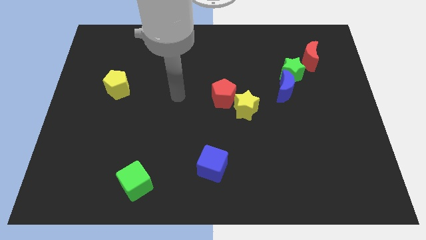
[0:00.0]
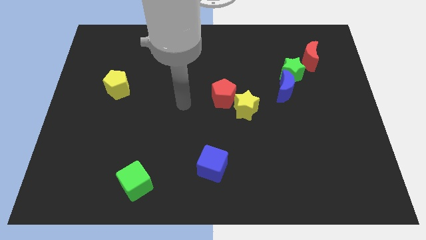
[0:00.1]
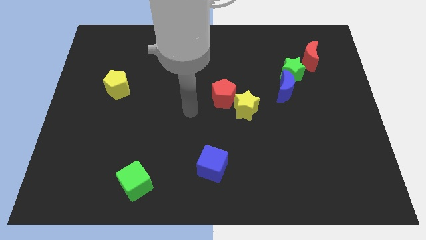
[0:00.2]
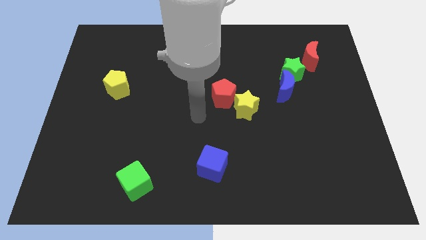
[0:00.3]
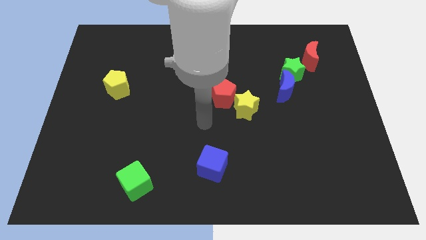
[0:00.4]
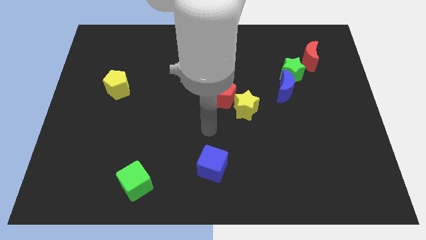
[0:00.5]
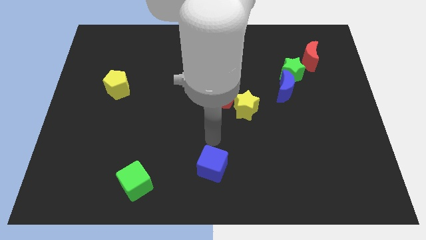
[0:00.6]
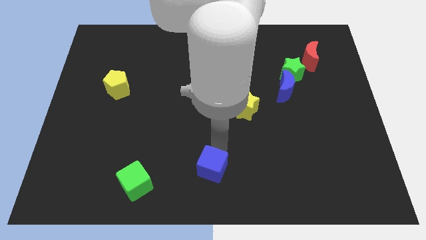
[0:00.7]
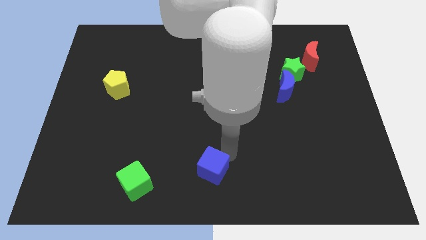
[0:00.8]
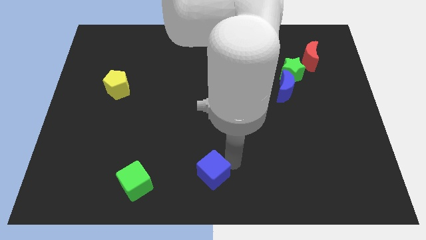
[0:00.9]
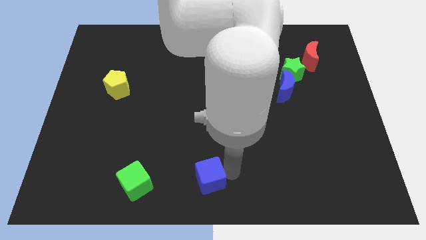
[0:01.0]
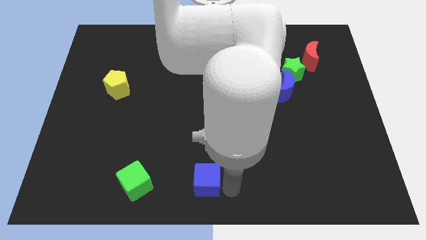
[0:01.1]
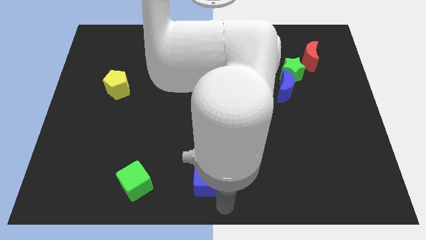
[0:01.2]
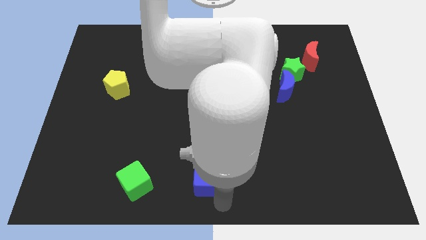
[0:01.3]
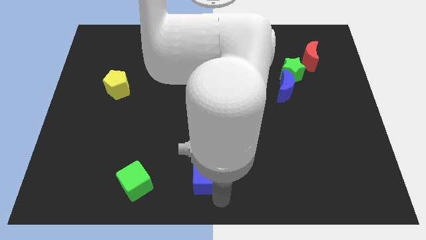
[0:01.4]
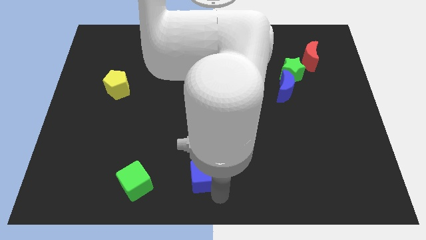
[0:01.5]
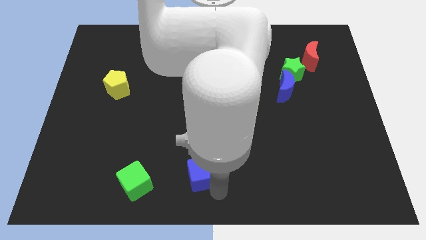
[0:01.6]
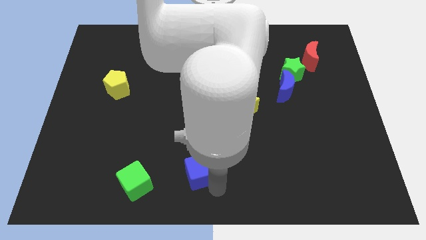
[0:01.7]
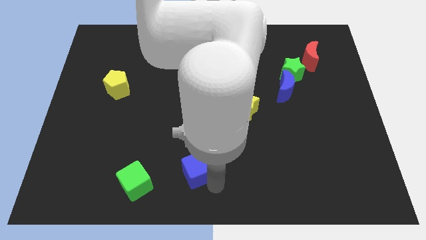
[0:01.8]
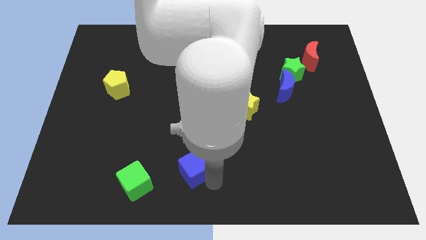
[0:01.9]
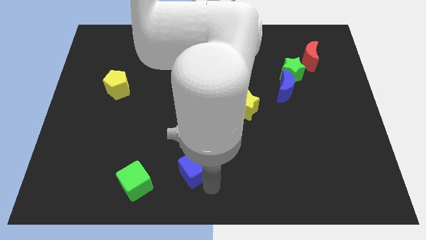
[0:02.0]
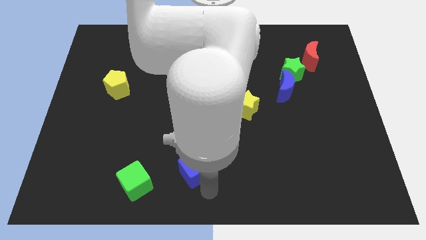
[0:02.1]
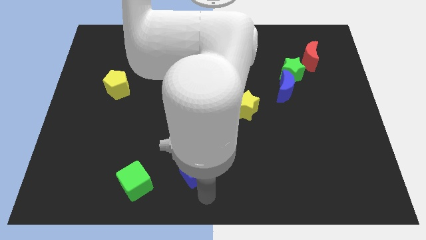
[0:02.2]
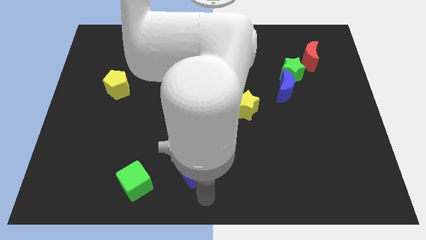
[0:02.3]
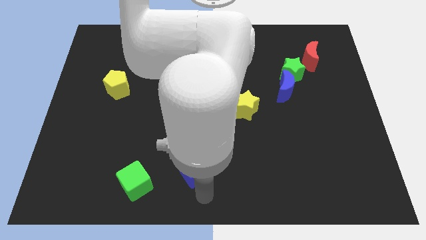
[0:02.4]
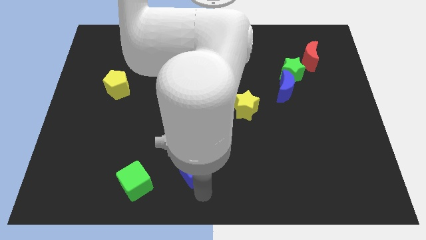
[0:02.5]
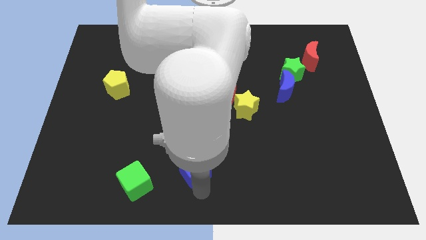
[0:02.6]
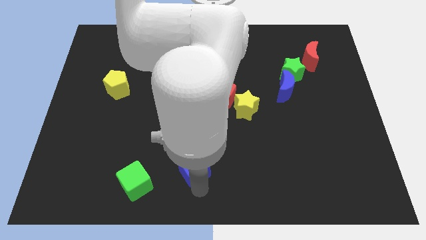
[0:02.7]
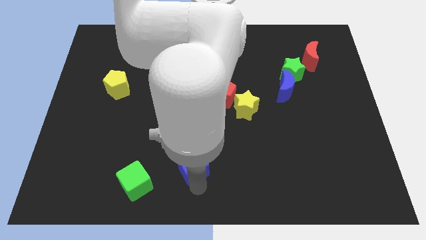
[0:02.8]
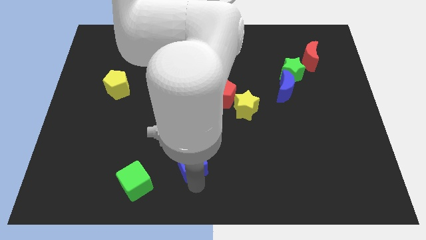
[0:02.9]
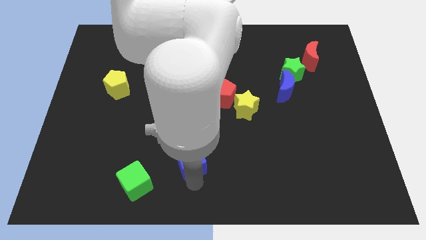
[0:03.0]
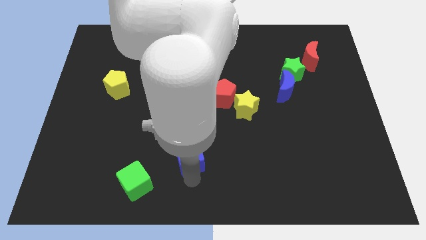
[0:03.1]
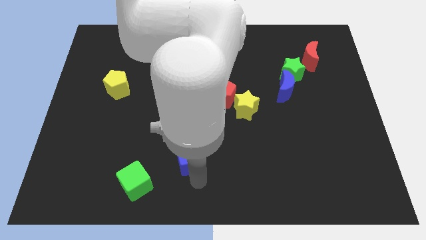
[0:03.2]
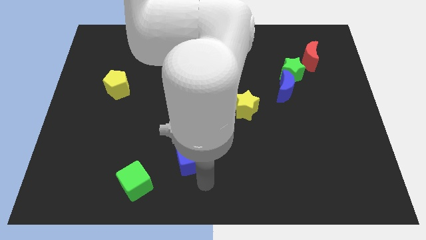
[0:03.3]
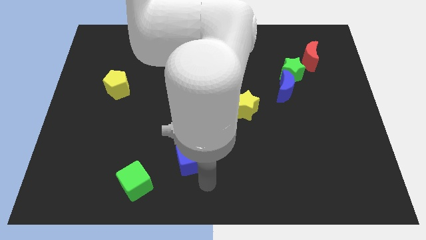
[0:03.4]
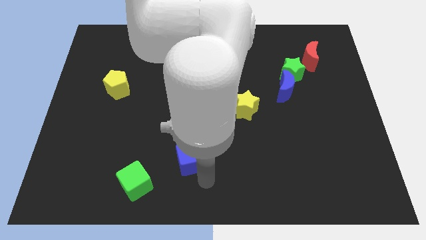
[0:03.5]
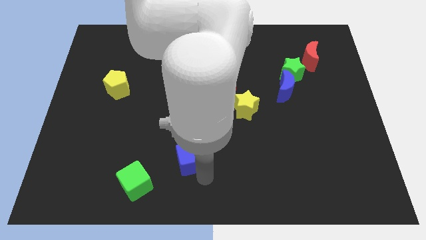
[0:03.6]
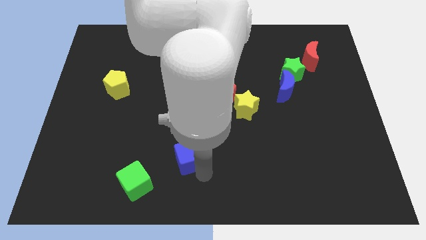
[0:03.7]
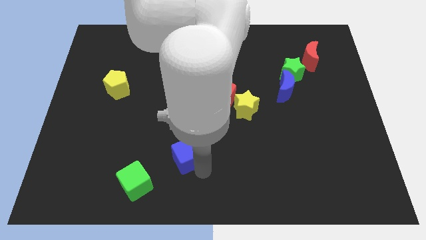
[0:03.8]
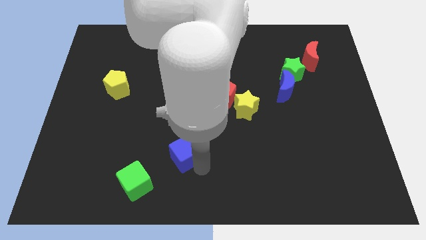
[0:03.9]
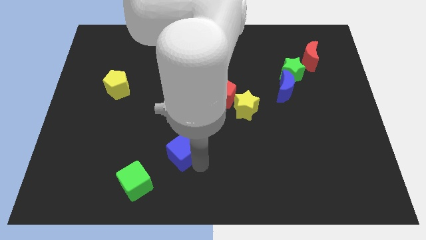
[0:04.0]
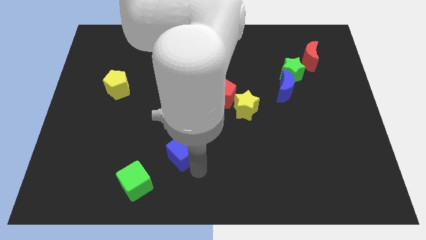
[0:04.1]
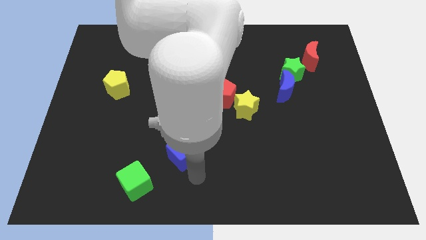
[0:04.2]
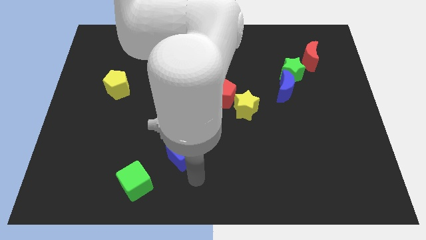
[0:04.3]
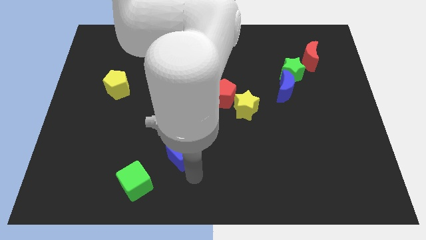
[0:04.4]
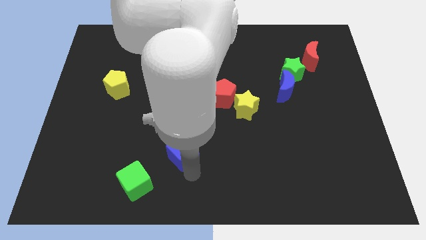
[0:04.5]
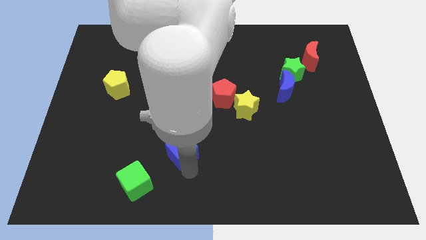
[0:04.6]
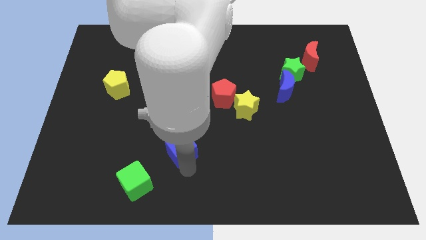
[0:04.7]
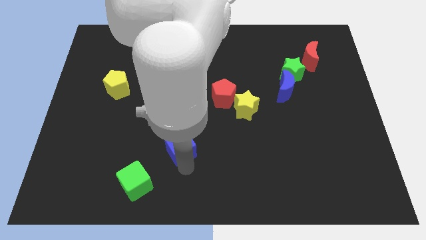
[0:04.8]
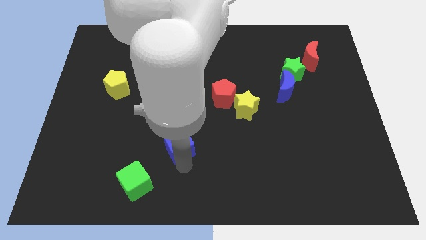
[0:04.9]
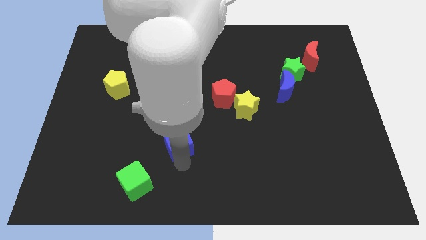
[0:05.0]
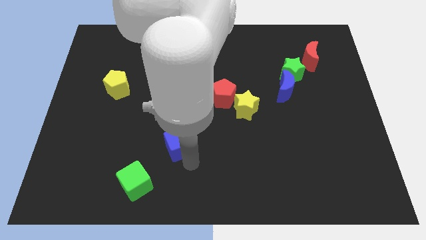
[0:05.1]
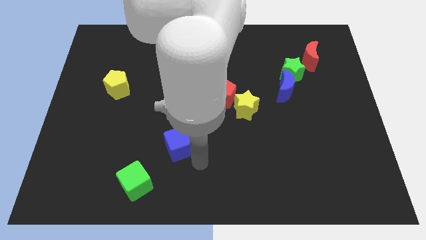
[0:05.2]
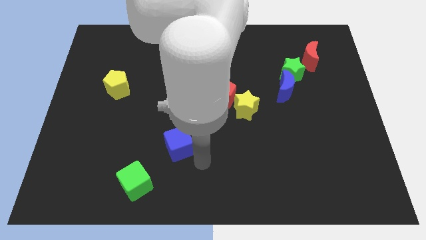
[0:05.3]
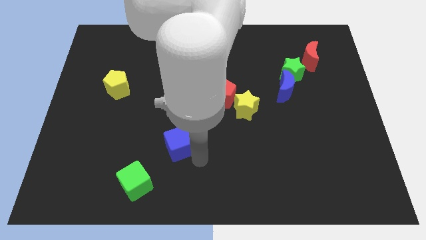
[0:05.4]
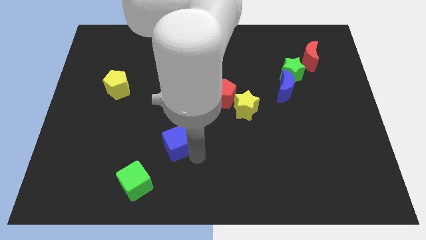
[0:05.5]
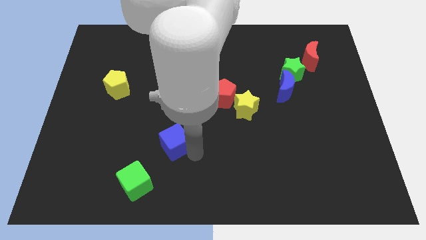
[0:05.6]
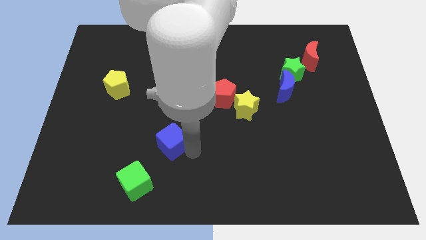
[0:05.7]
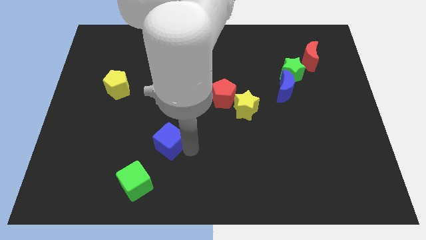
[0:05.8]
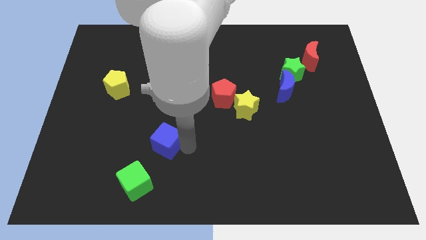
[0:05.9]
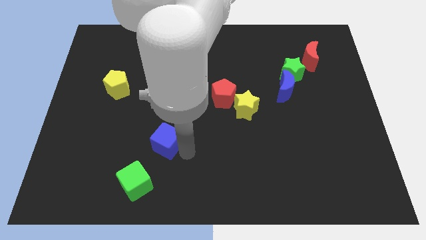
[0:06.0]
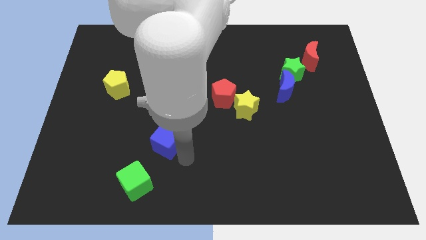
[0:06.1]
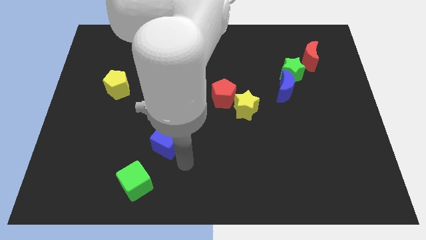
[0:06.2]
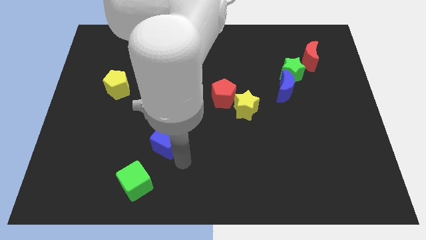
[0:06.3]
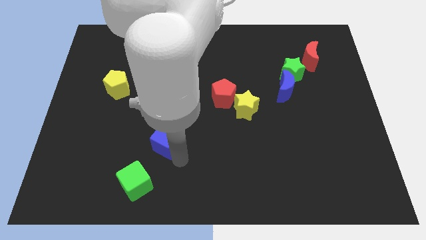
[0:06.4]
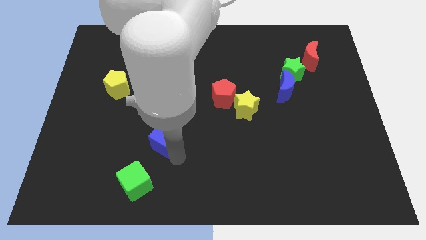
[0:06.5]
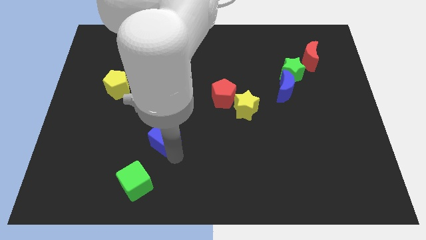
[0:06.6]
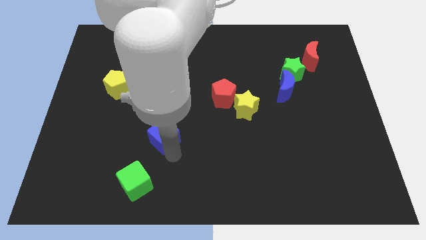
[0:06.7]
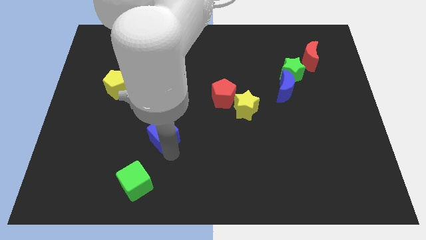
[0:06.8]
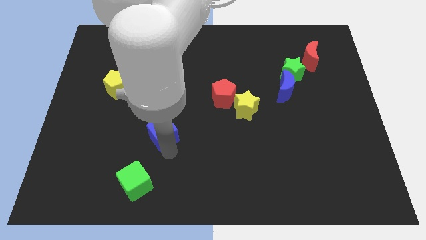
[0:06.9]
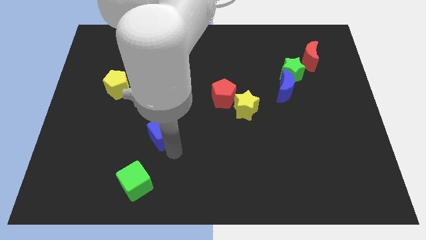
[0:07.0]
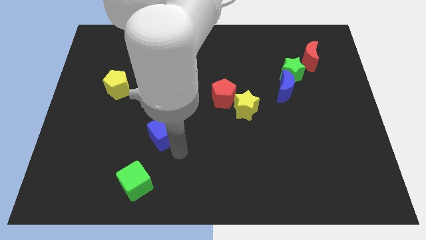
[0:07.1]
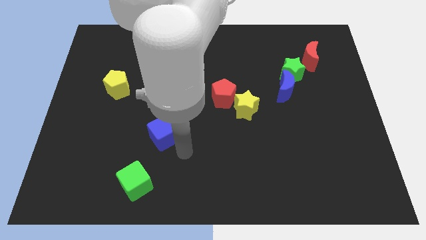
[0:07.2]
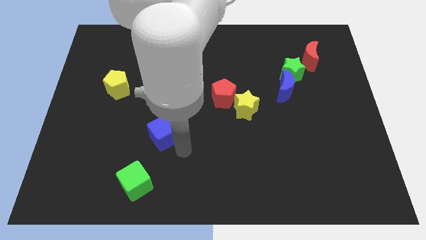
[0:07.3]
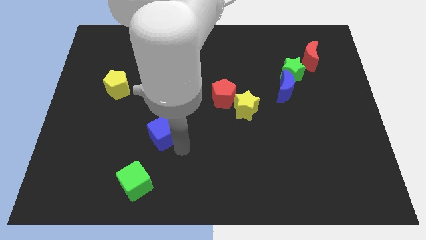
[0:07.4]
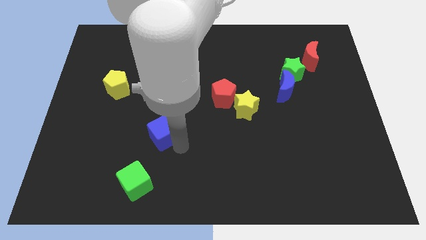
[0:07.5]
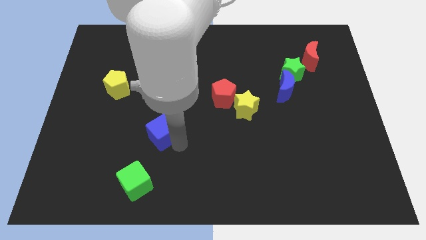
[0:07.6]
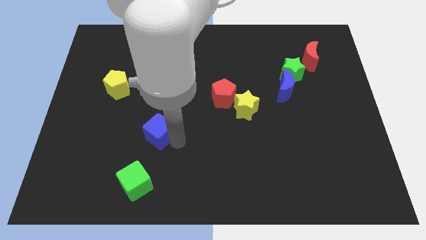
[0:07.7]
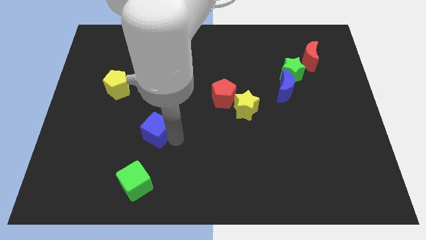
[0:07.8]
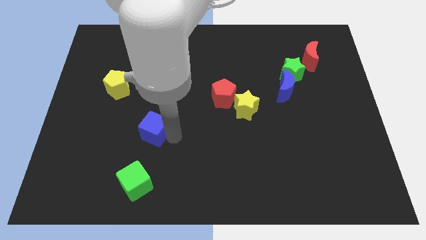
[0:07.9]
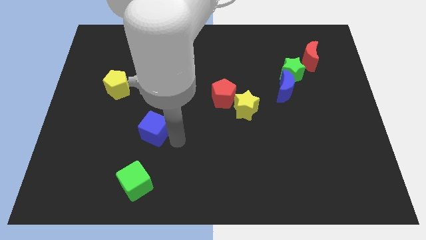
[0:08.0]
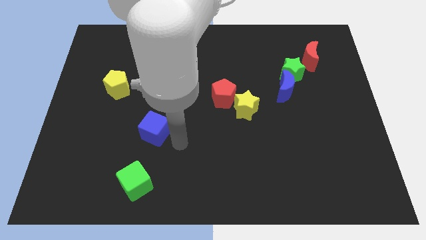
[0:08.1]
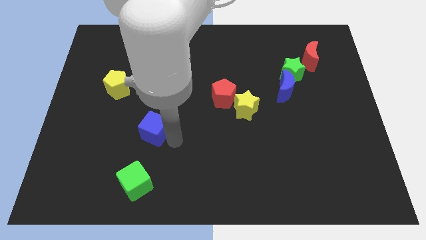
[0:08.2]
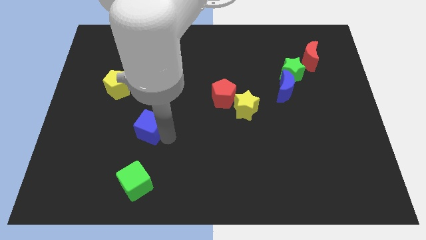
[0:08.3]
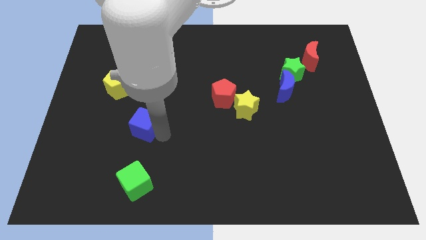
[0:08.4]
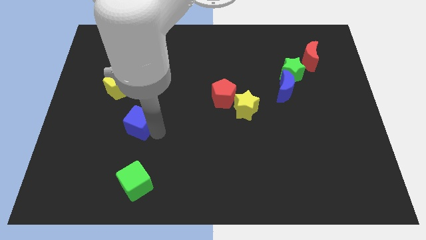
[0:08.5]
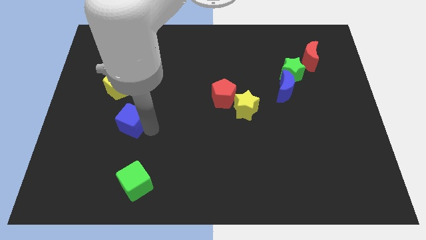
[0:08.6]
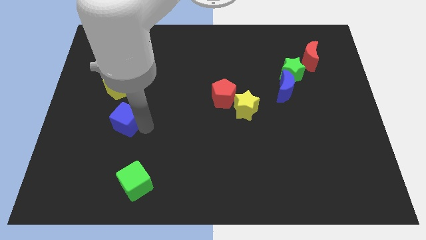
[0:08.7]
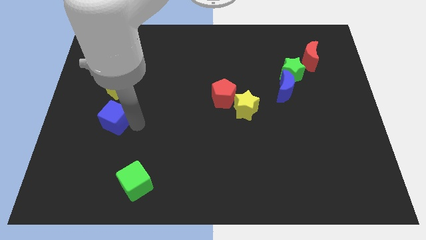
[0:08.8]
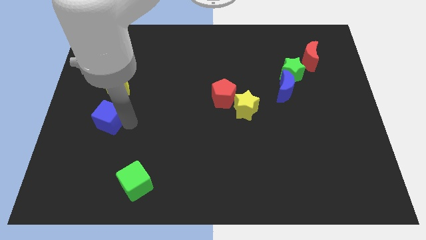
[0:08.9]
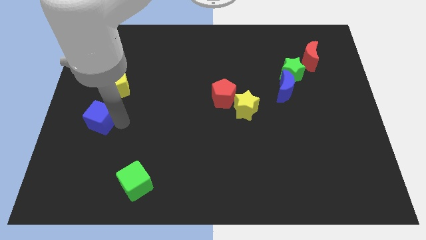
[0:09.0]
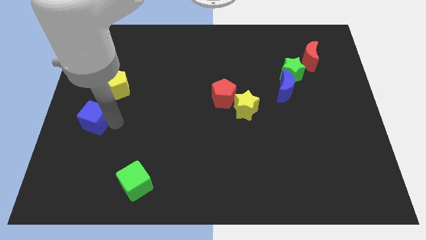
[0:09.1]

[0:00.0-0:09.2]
slide the blue cube to the left side of the board
